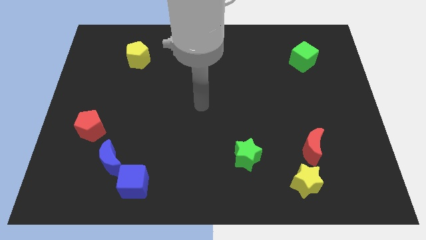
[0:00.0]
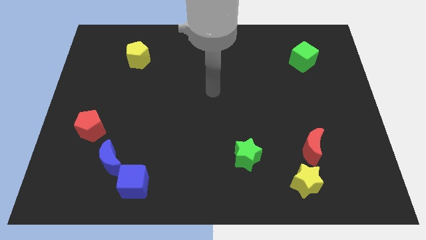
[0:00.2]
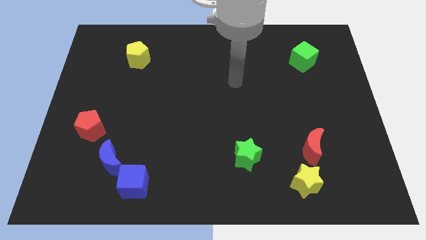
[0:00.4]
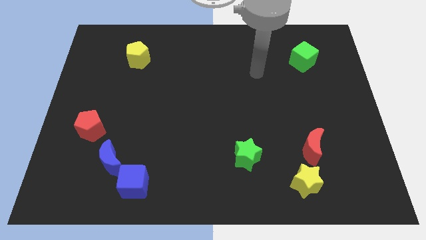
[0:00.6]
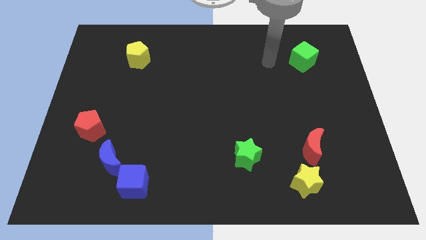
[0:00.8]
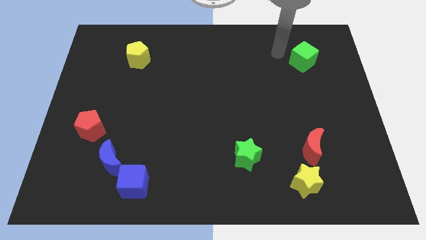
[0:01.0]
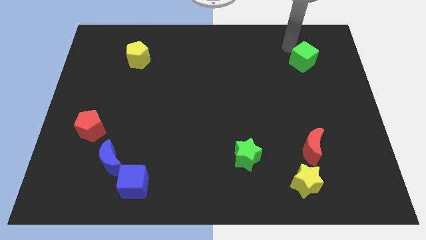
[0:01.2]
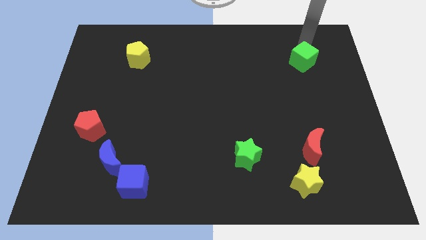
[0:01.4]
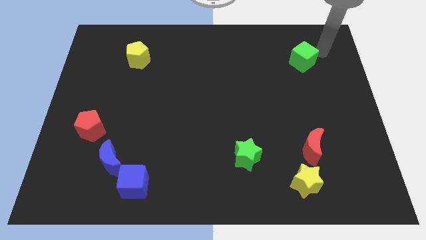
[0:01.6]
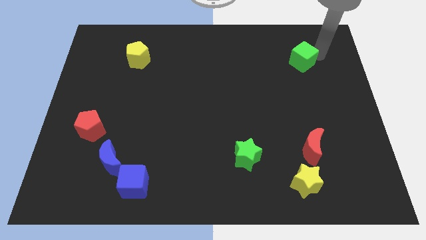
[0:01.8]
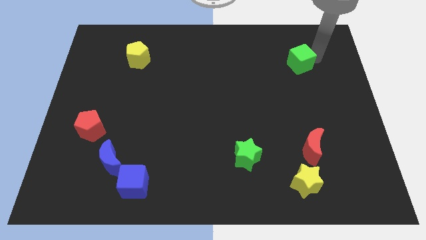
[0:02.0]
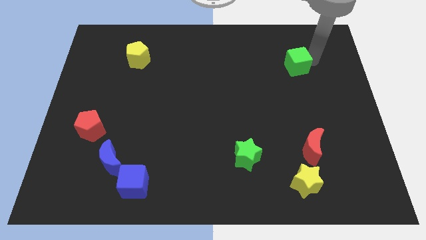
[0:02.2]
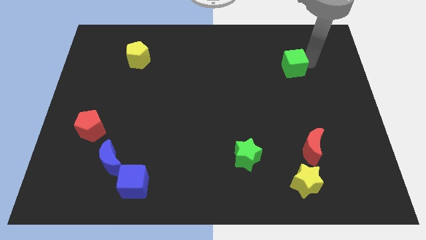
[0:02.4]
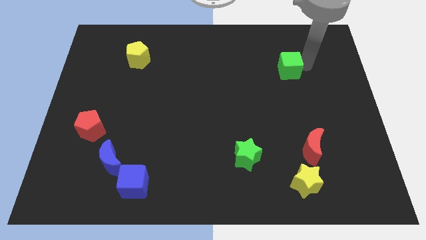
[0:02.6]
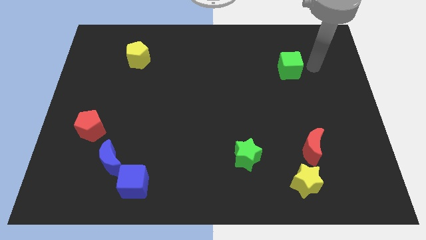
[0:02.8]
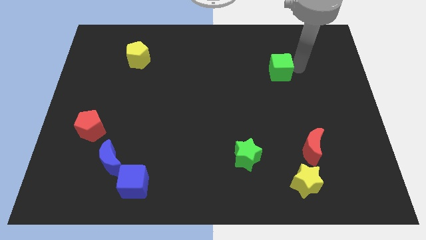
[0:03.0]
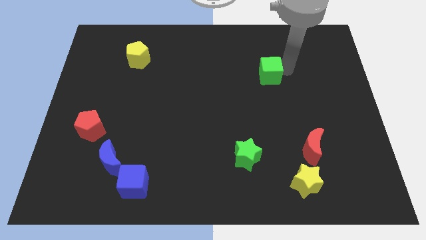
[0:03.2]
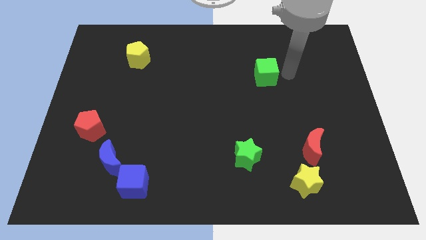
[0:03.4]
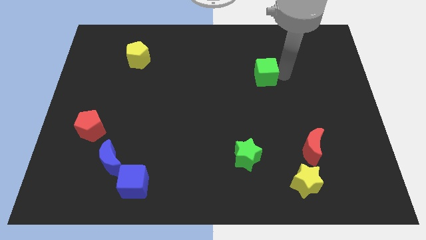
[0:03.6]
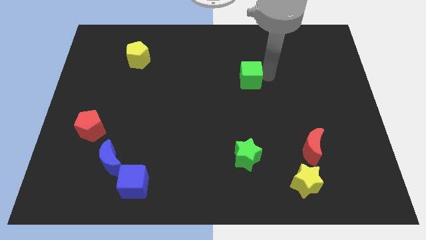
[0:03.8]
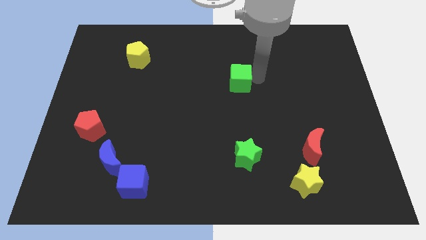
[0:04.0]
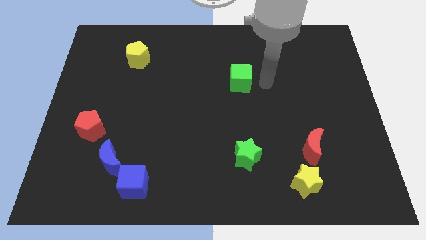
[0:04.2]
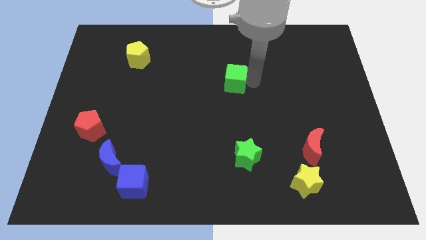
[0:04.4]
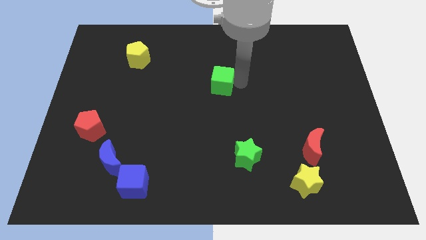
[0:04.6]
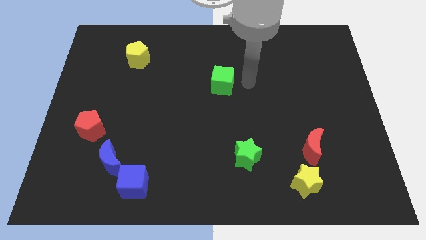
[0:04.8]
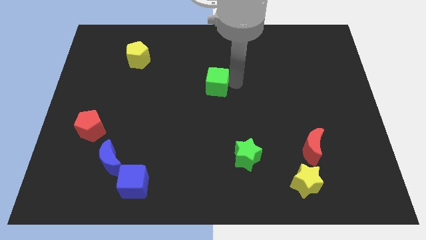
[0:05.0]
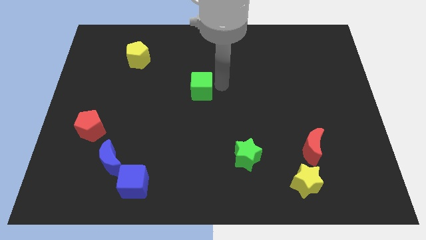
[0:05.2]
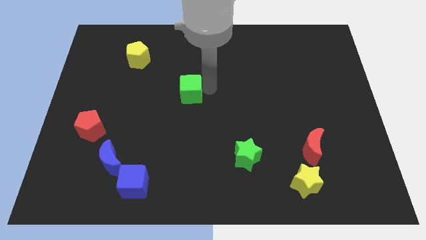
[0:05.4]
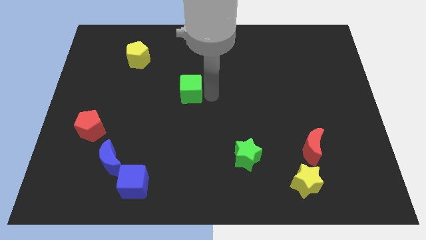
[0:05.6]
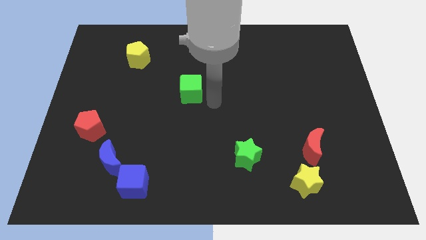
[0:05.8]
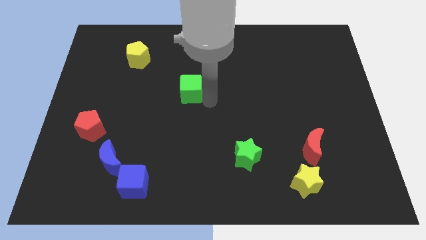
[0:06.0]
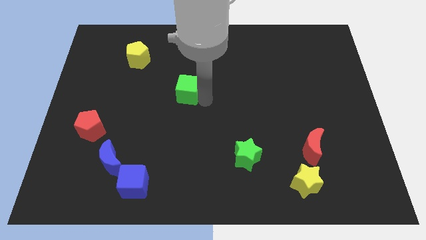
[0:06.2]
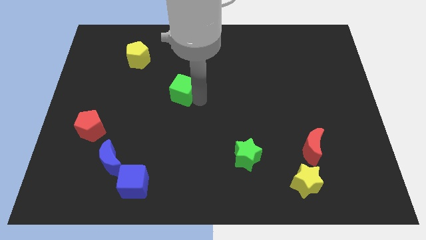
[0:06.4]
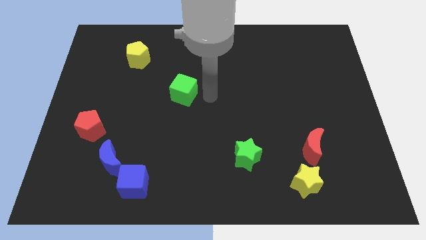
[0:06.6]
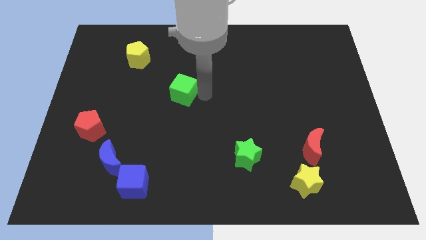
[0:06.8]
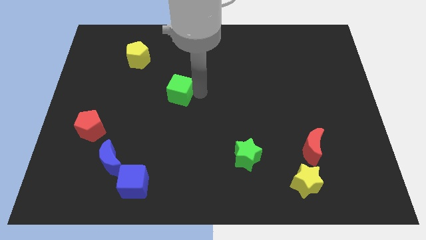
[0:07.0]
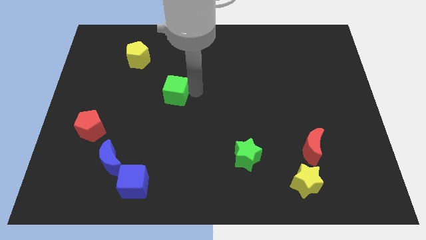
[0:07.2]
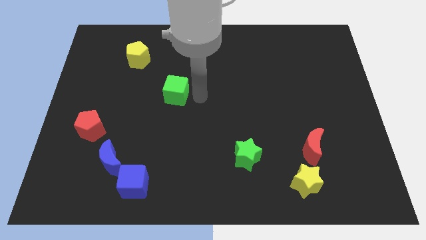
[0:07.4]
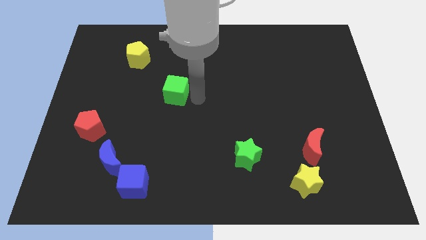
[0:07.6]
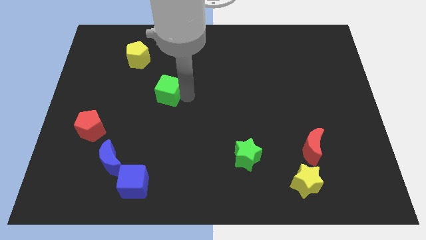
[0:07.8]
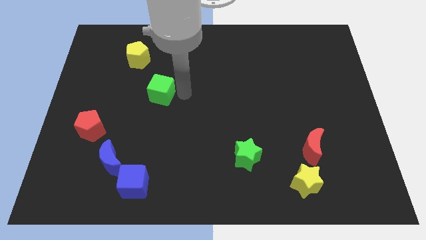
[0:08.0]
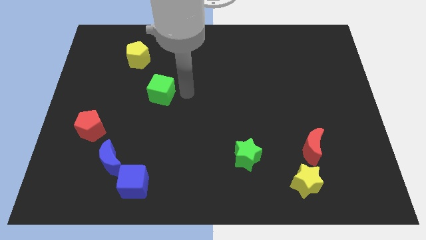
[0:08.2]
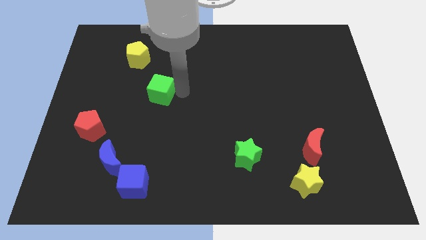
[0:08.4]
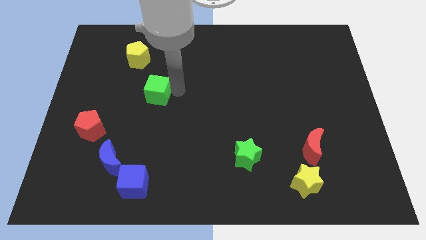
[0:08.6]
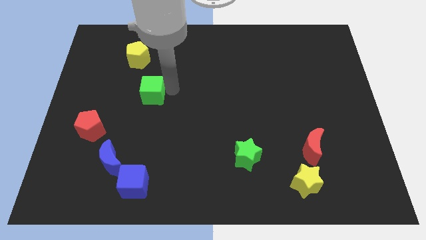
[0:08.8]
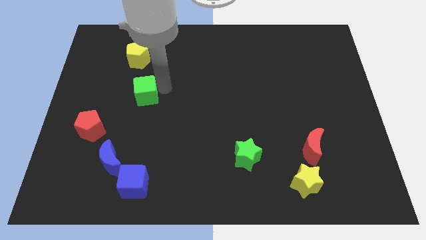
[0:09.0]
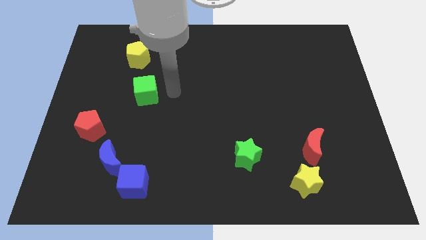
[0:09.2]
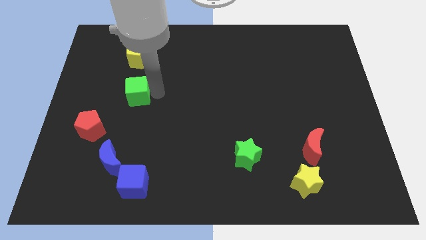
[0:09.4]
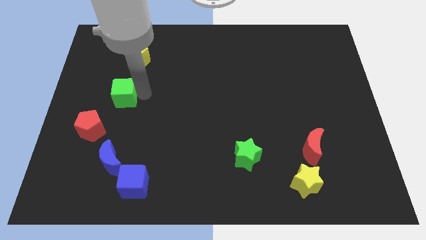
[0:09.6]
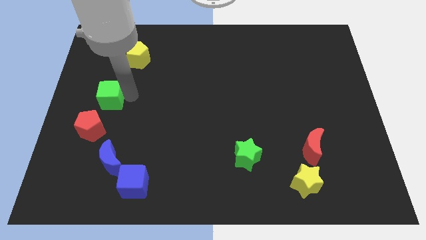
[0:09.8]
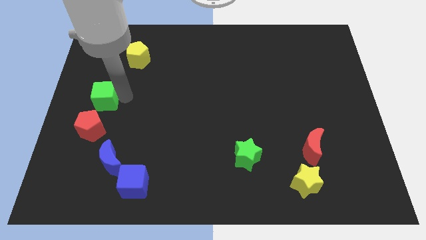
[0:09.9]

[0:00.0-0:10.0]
put the green cube to the left side

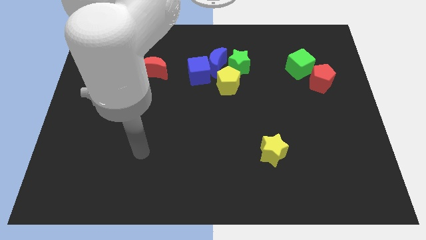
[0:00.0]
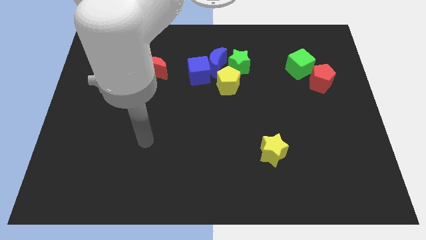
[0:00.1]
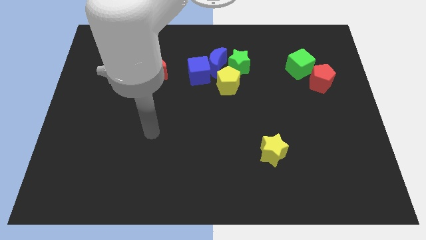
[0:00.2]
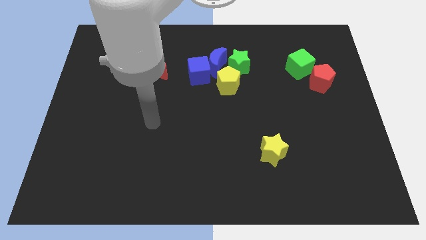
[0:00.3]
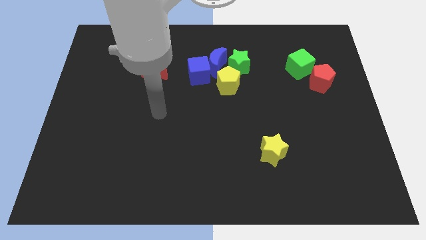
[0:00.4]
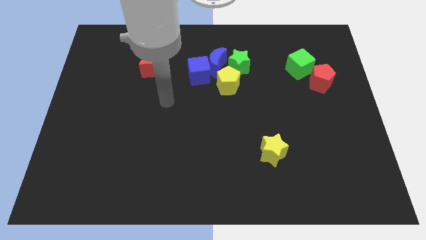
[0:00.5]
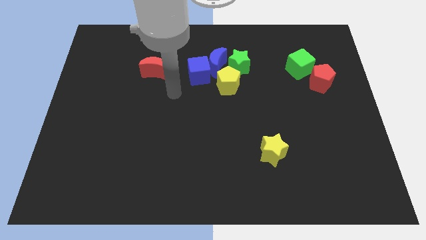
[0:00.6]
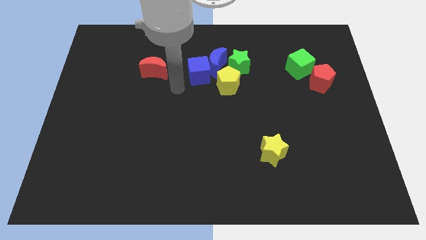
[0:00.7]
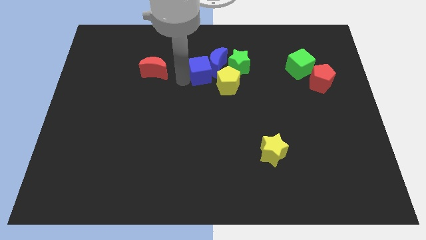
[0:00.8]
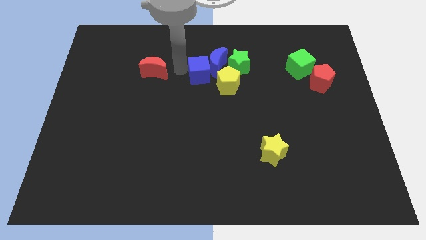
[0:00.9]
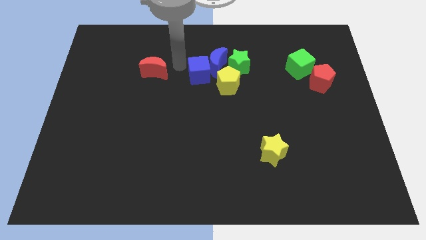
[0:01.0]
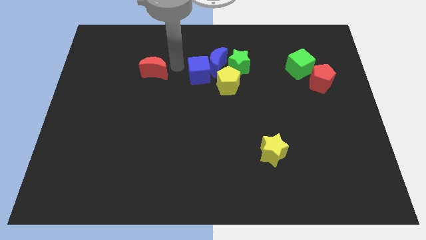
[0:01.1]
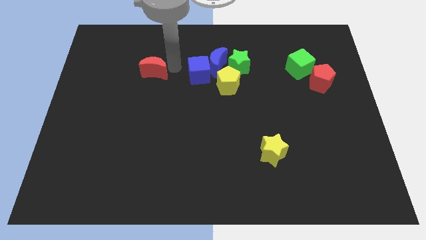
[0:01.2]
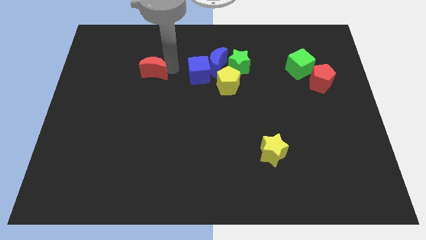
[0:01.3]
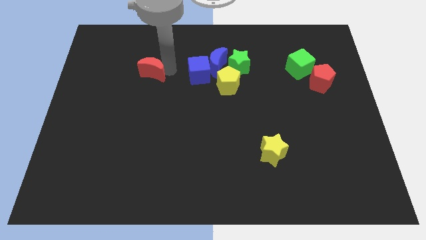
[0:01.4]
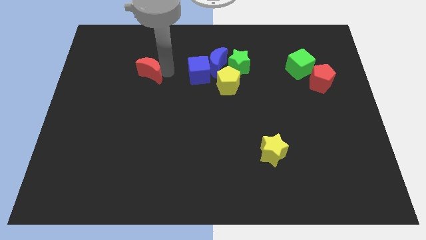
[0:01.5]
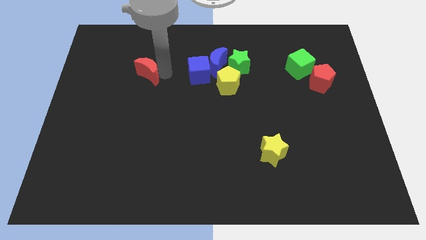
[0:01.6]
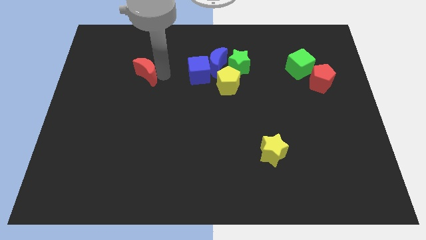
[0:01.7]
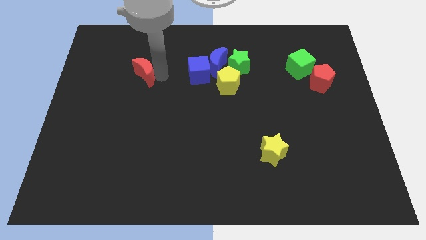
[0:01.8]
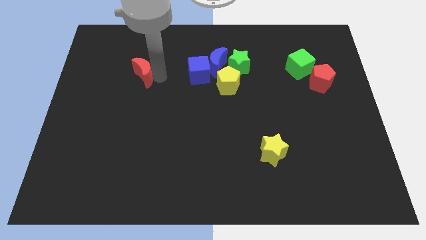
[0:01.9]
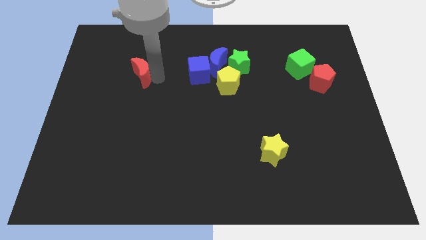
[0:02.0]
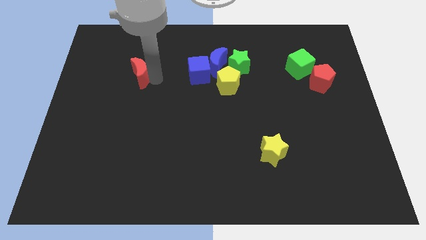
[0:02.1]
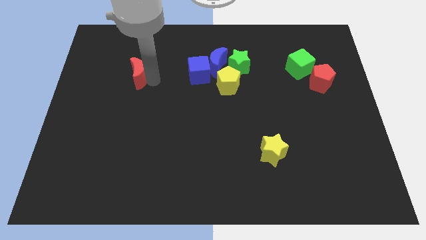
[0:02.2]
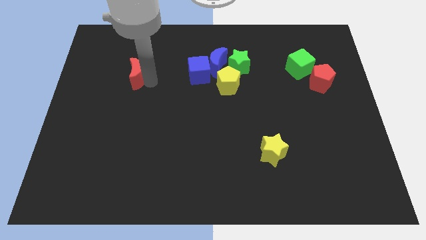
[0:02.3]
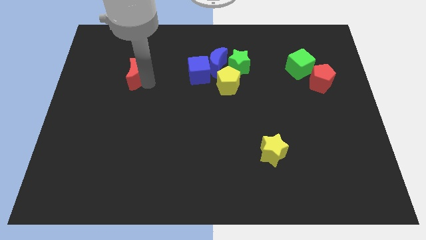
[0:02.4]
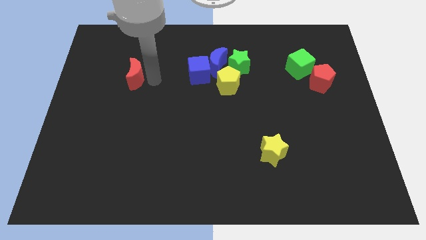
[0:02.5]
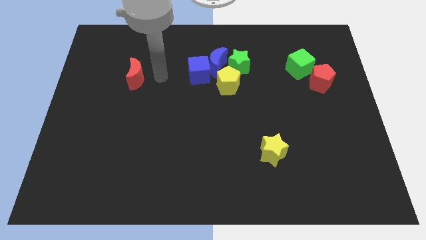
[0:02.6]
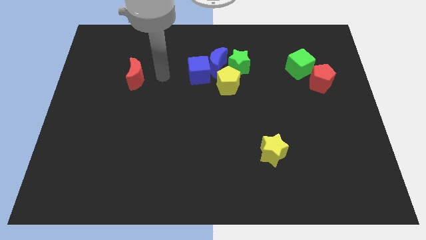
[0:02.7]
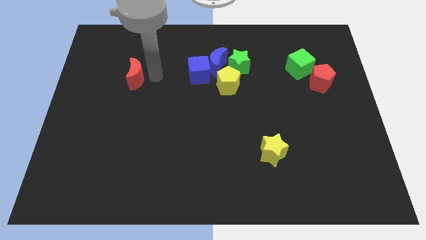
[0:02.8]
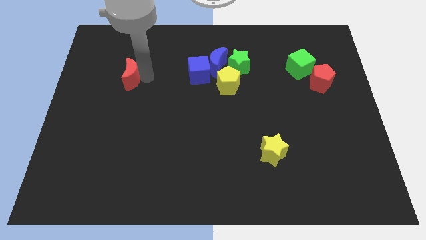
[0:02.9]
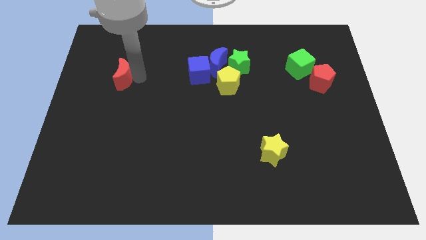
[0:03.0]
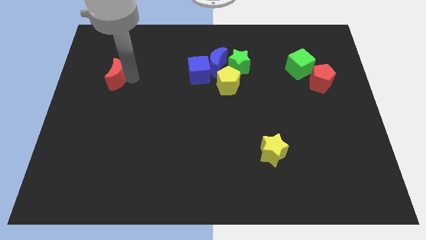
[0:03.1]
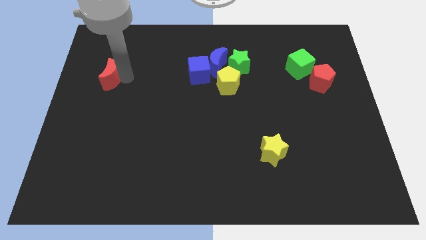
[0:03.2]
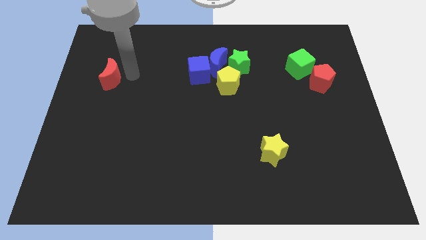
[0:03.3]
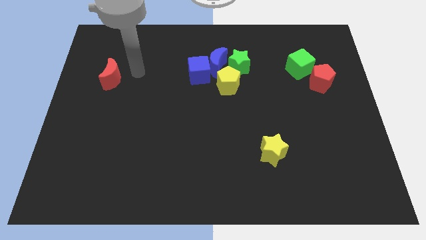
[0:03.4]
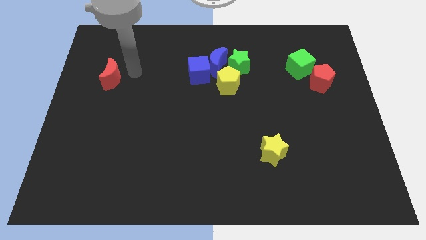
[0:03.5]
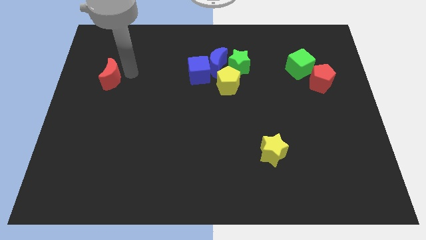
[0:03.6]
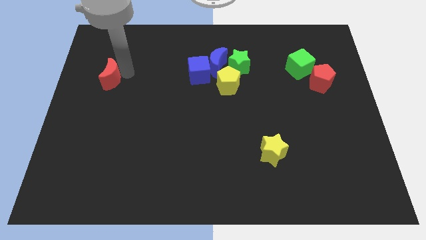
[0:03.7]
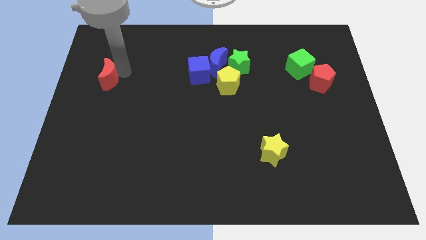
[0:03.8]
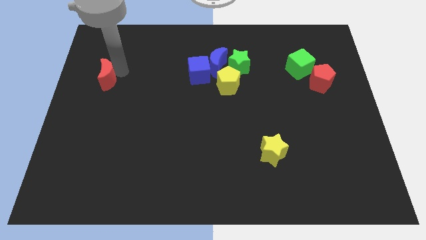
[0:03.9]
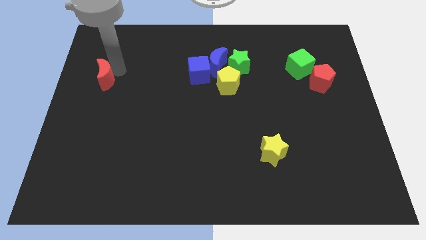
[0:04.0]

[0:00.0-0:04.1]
put the red moon to the left side of the board
